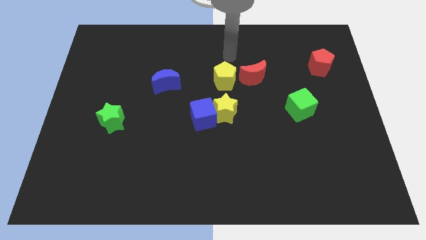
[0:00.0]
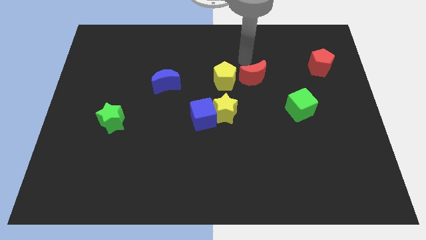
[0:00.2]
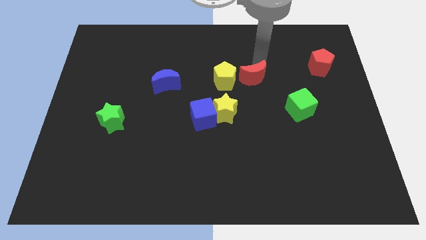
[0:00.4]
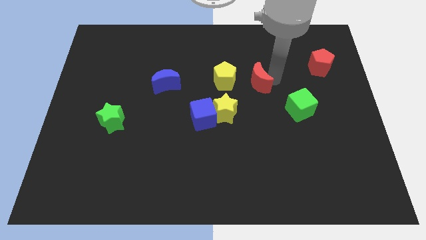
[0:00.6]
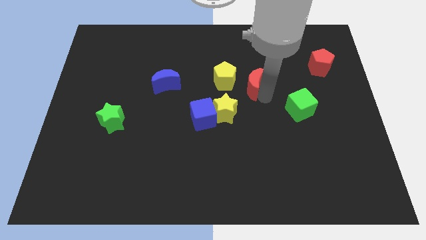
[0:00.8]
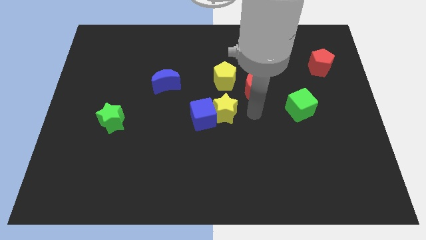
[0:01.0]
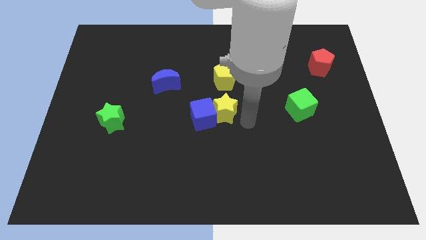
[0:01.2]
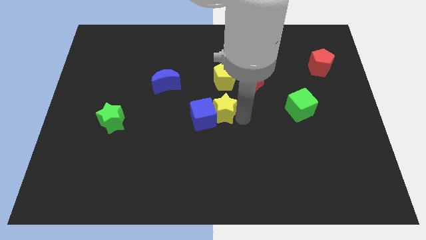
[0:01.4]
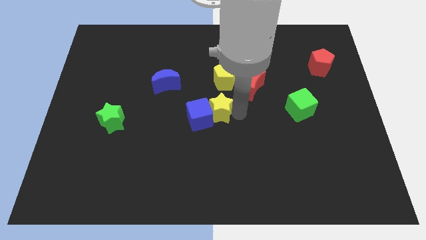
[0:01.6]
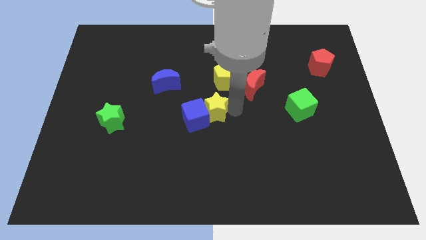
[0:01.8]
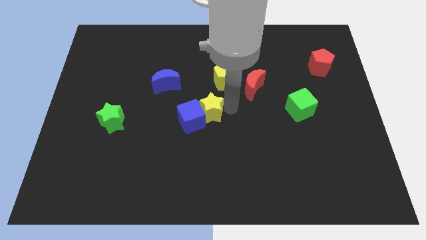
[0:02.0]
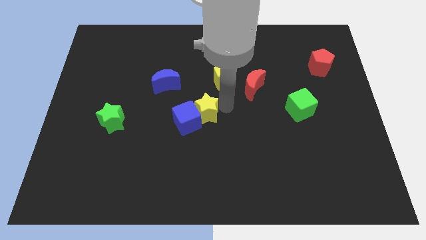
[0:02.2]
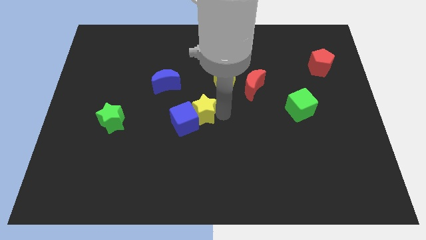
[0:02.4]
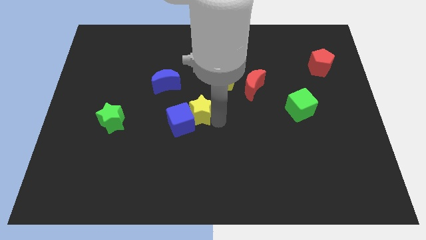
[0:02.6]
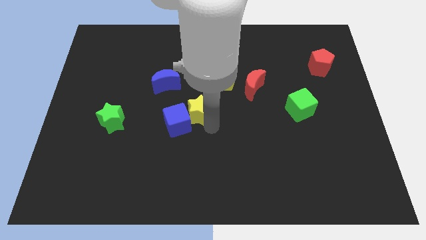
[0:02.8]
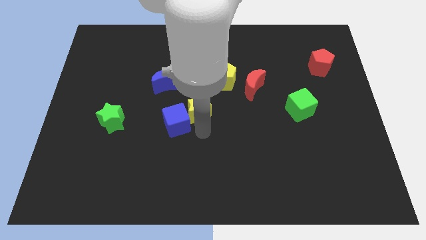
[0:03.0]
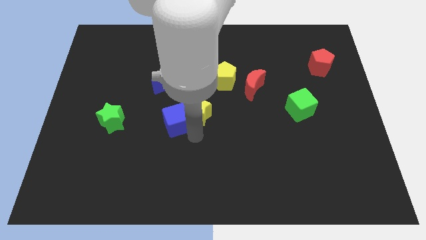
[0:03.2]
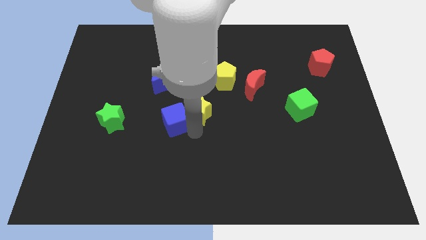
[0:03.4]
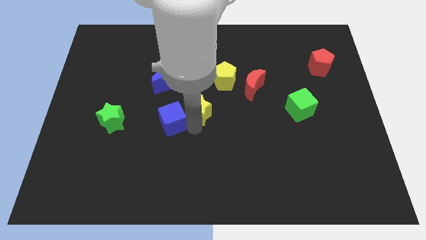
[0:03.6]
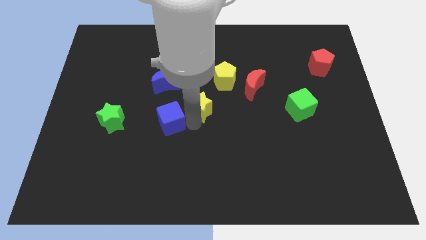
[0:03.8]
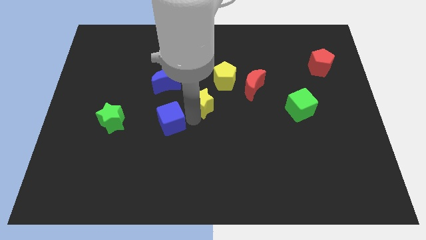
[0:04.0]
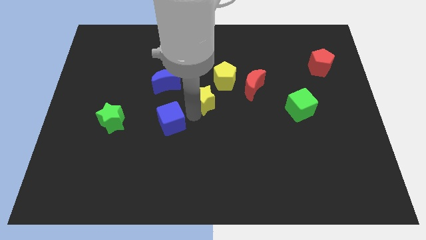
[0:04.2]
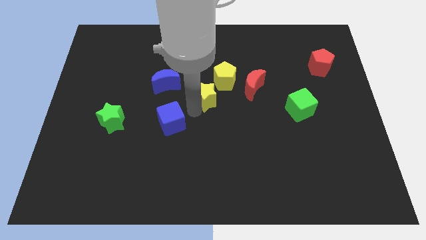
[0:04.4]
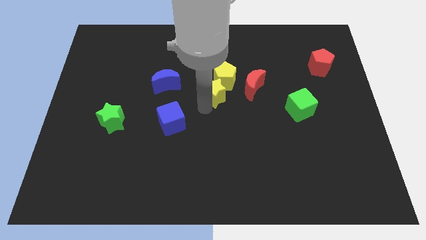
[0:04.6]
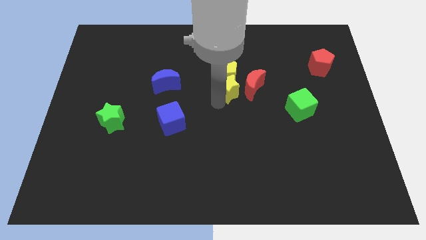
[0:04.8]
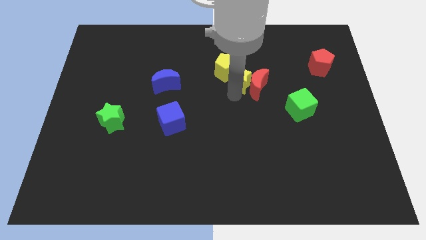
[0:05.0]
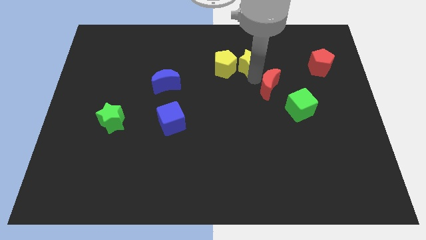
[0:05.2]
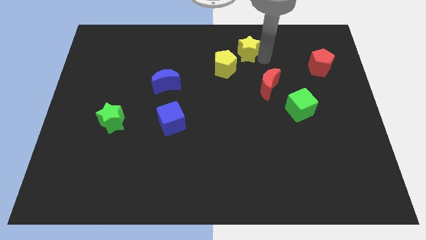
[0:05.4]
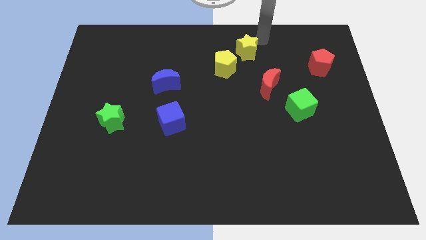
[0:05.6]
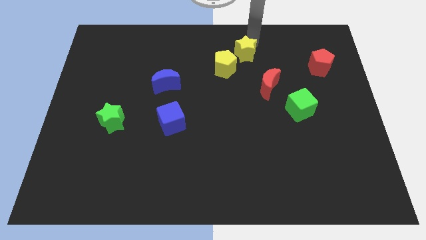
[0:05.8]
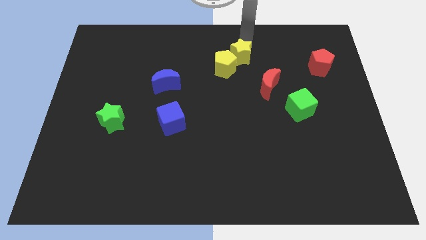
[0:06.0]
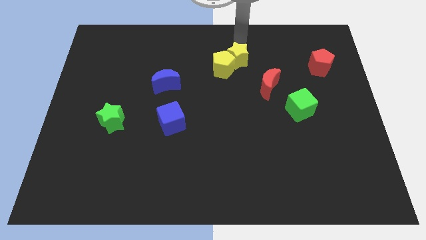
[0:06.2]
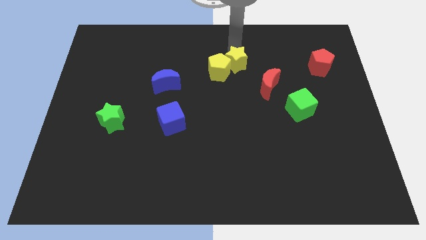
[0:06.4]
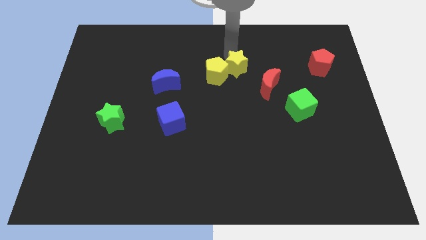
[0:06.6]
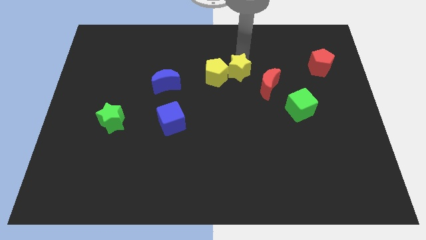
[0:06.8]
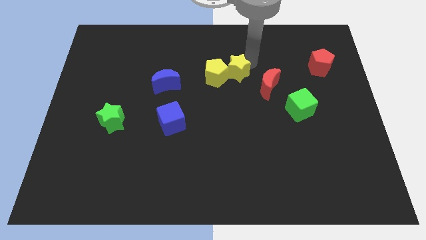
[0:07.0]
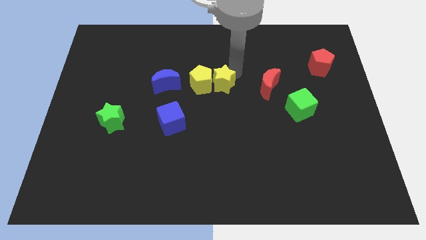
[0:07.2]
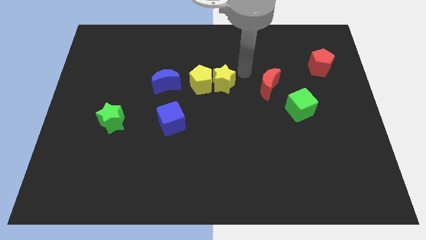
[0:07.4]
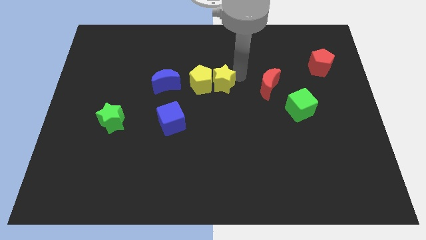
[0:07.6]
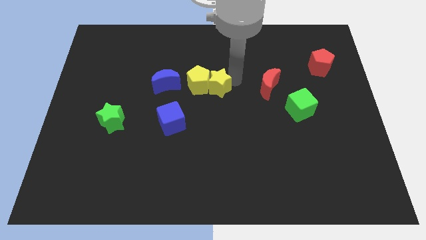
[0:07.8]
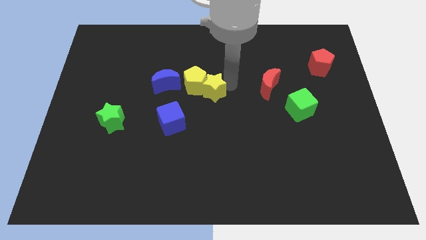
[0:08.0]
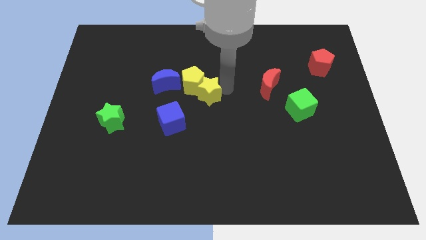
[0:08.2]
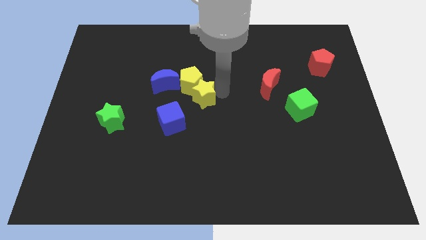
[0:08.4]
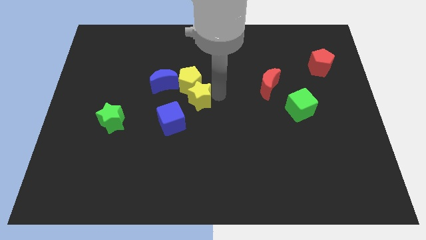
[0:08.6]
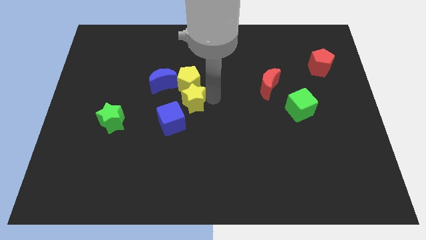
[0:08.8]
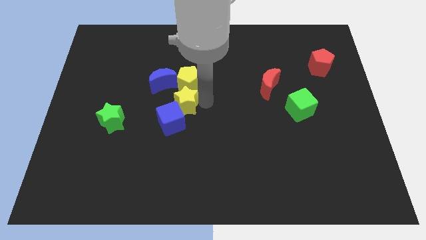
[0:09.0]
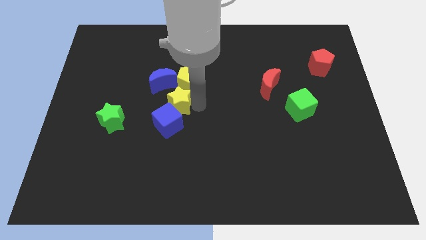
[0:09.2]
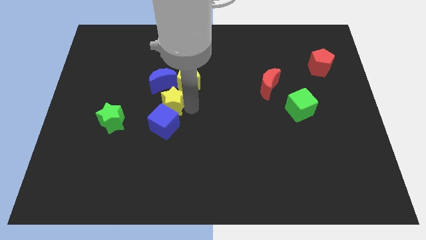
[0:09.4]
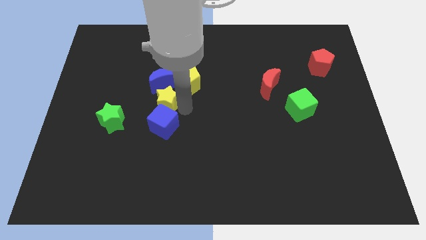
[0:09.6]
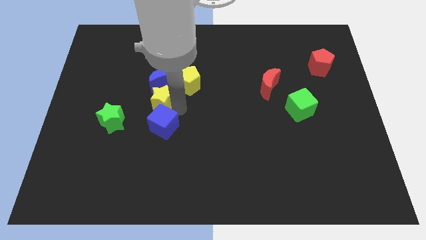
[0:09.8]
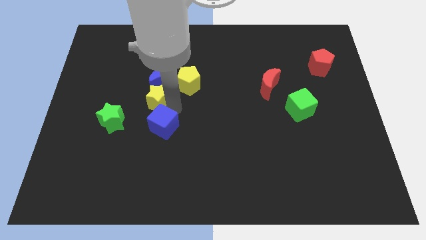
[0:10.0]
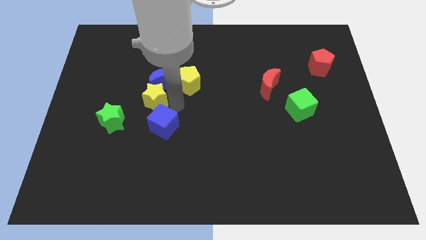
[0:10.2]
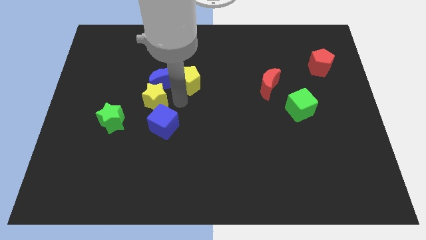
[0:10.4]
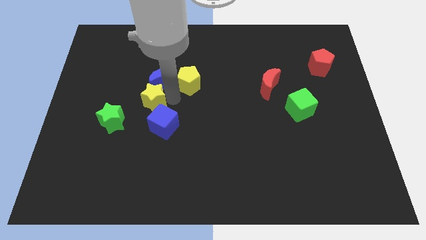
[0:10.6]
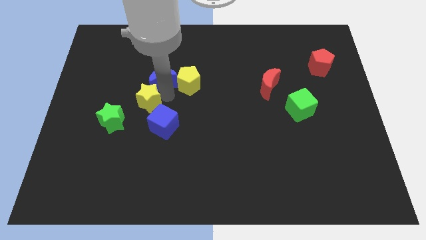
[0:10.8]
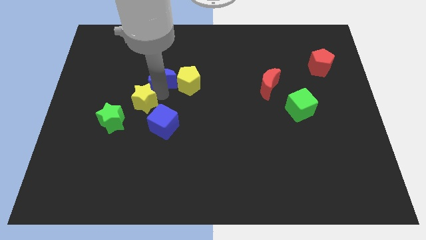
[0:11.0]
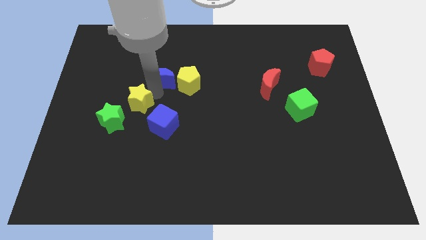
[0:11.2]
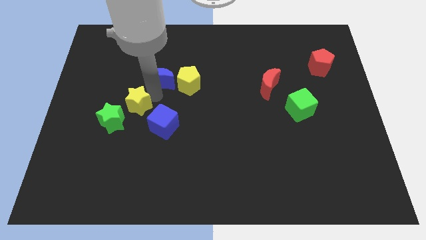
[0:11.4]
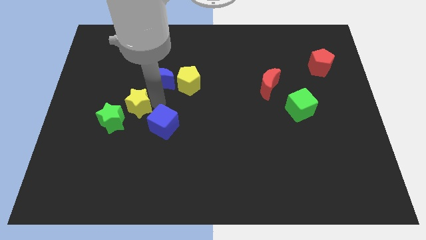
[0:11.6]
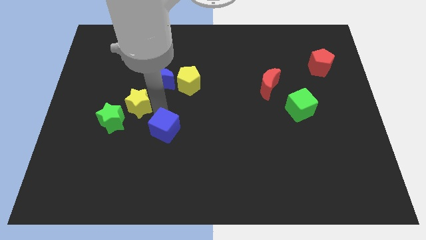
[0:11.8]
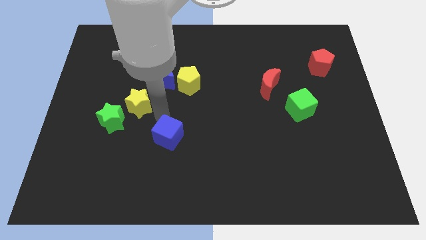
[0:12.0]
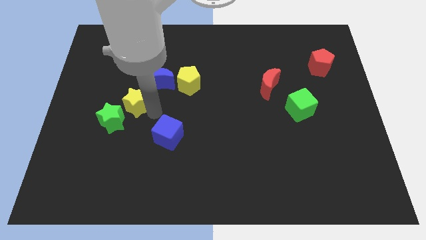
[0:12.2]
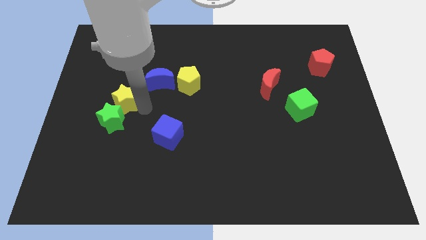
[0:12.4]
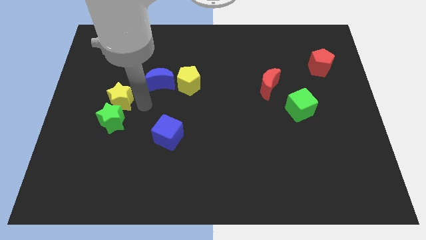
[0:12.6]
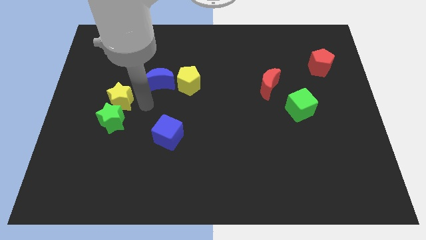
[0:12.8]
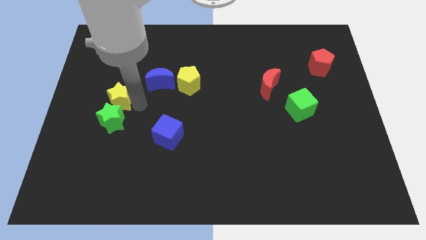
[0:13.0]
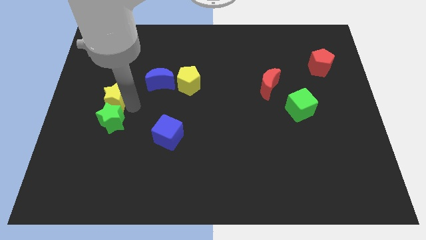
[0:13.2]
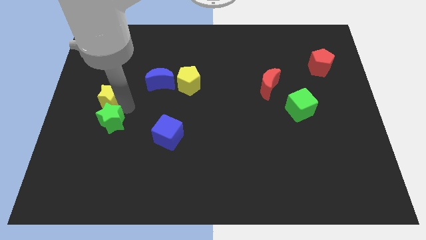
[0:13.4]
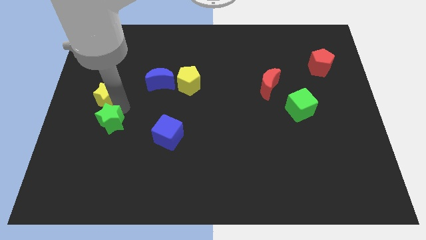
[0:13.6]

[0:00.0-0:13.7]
move the yellow star to the left side

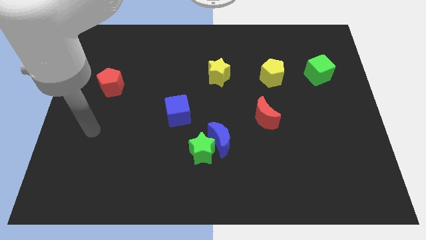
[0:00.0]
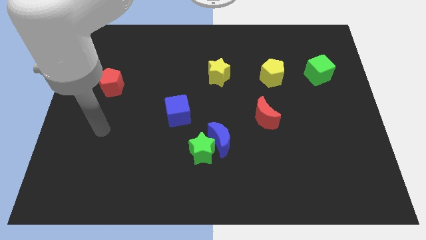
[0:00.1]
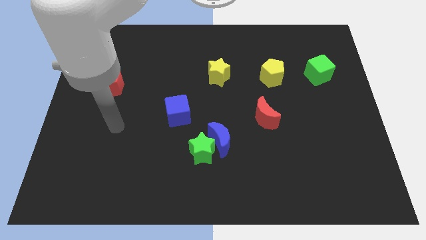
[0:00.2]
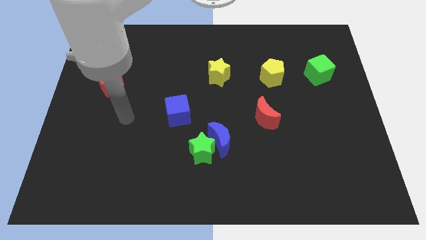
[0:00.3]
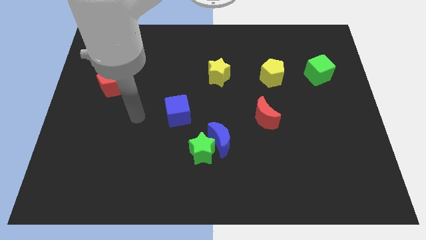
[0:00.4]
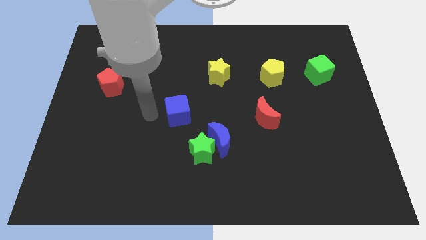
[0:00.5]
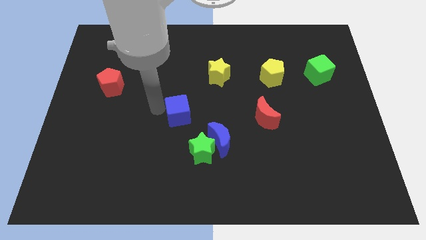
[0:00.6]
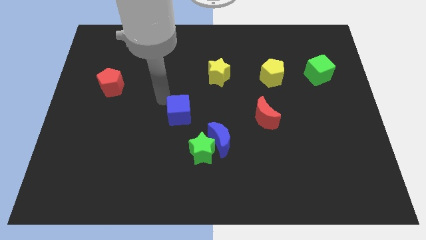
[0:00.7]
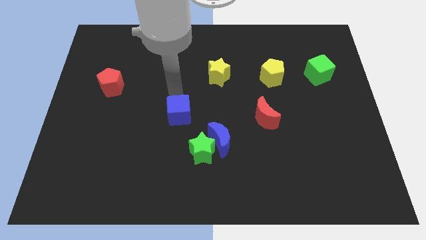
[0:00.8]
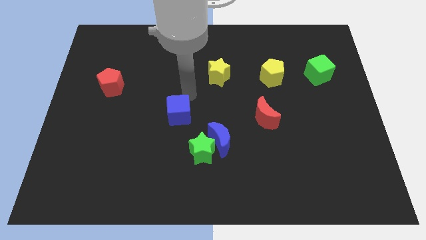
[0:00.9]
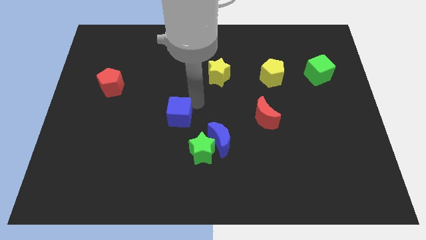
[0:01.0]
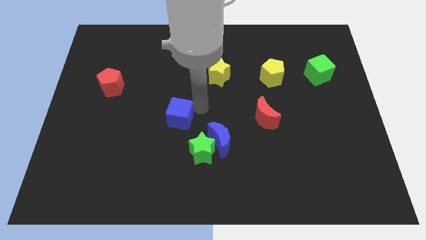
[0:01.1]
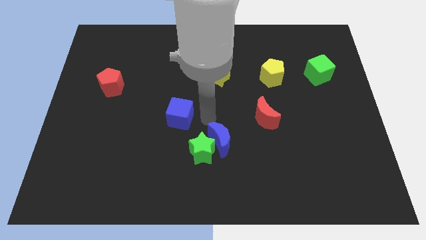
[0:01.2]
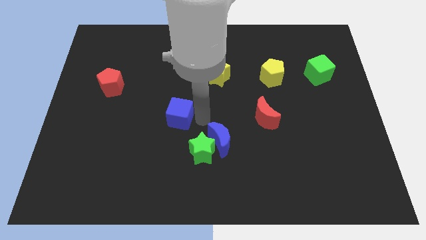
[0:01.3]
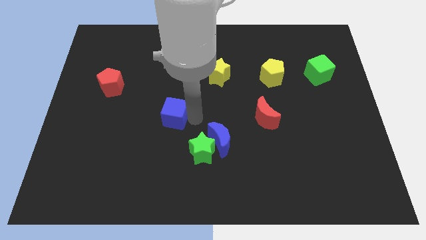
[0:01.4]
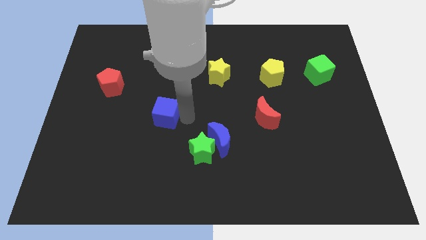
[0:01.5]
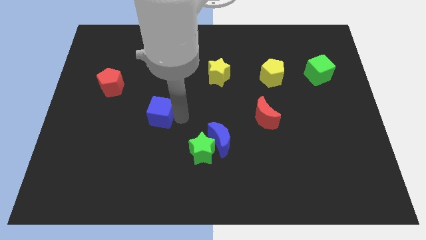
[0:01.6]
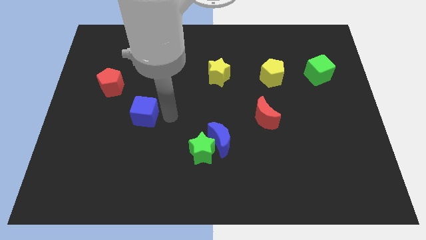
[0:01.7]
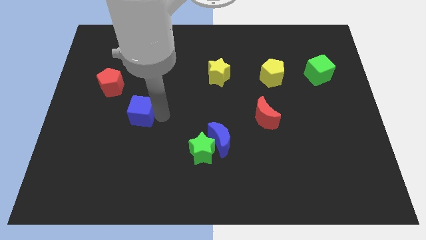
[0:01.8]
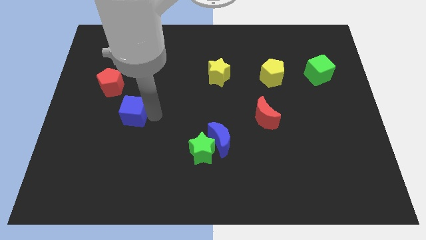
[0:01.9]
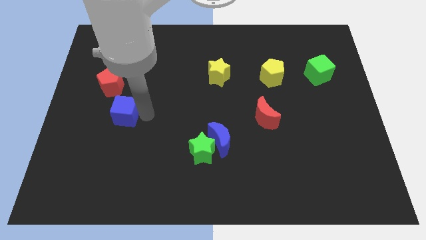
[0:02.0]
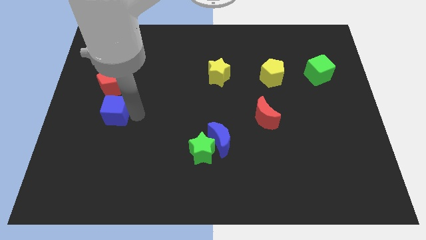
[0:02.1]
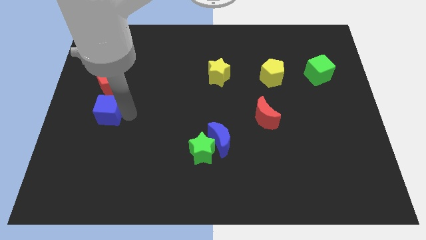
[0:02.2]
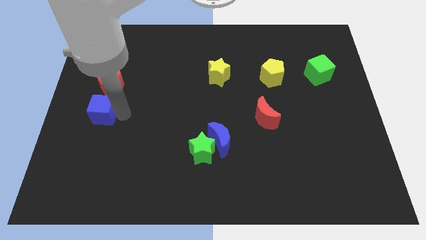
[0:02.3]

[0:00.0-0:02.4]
put the blue cube to the left side
